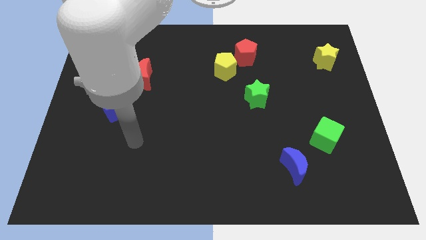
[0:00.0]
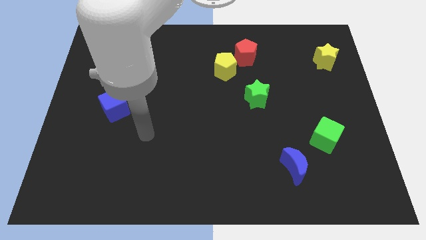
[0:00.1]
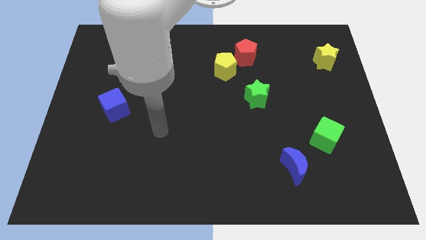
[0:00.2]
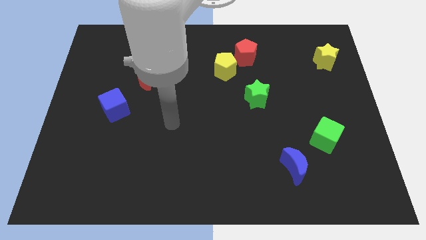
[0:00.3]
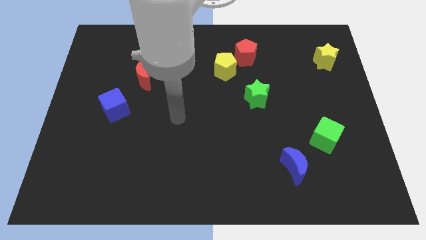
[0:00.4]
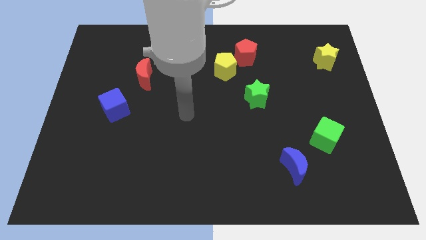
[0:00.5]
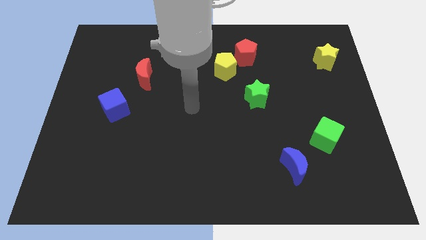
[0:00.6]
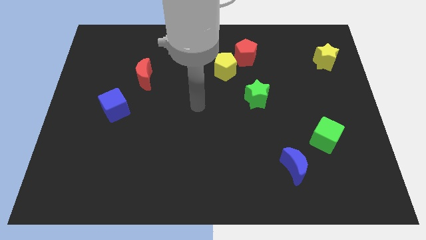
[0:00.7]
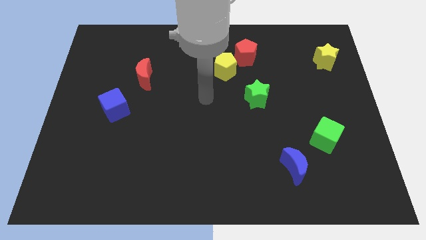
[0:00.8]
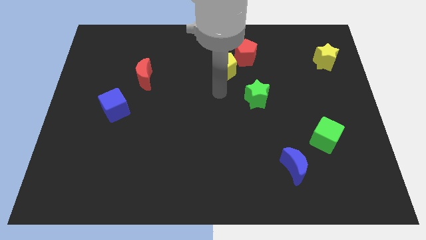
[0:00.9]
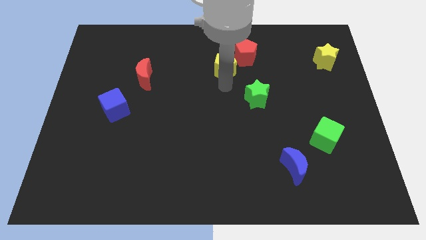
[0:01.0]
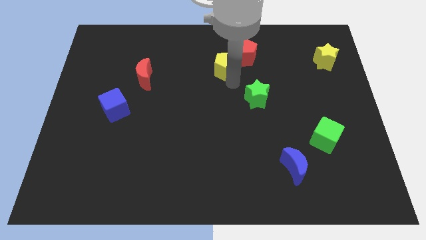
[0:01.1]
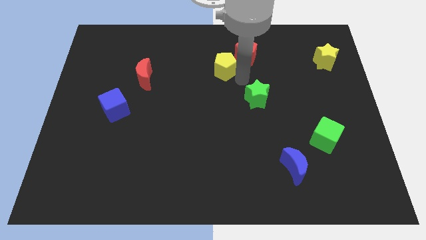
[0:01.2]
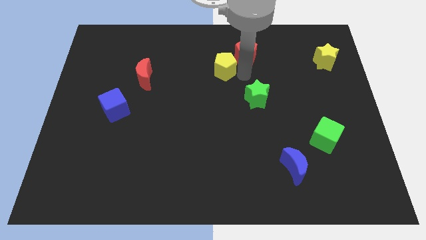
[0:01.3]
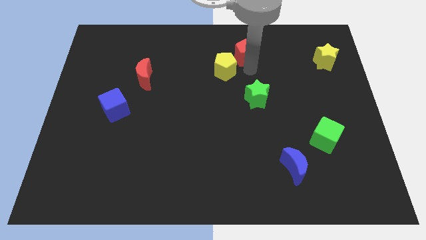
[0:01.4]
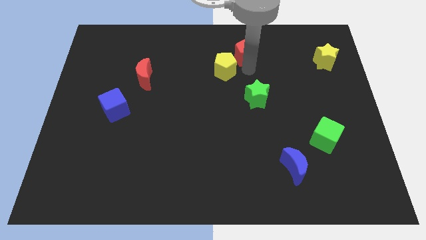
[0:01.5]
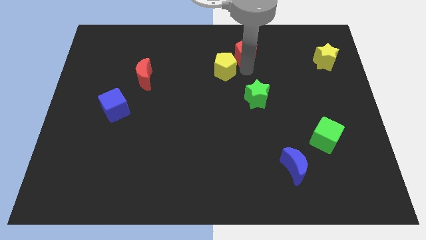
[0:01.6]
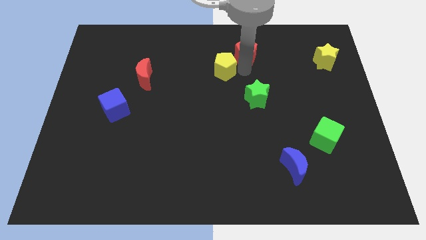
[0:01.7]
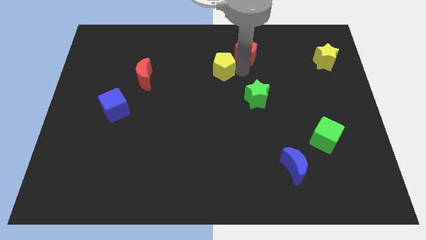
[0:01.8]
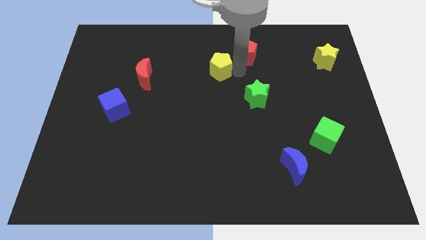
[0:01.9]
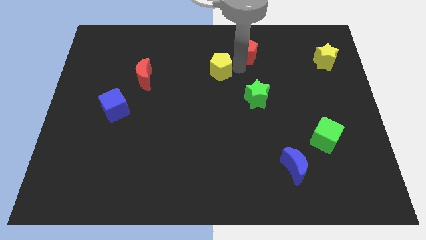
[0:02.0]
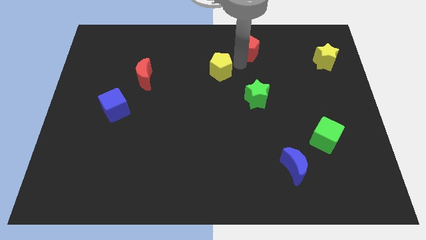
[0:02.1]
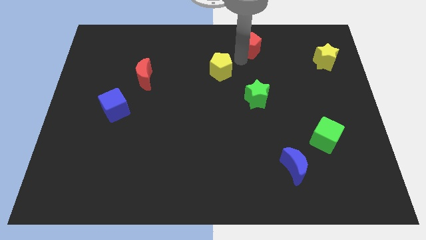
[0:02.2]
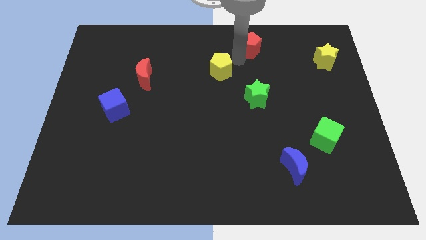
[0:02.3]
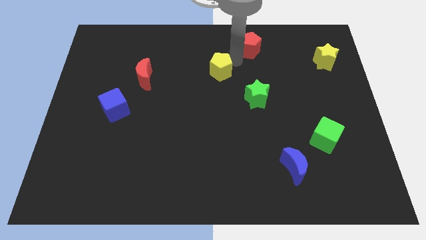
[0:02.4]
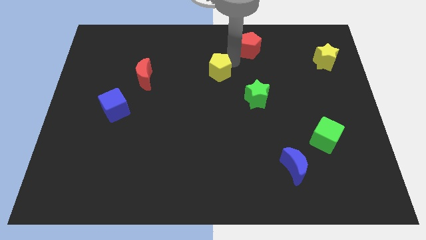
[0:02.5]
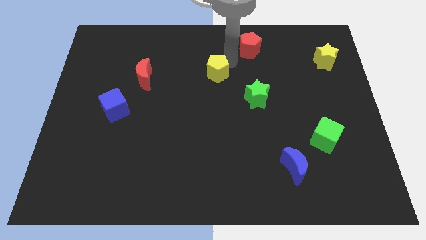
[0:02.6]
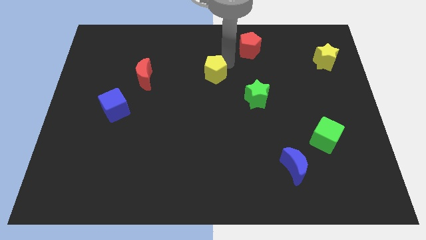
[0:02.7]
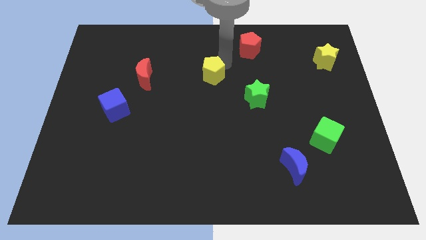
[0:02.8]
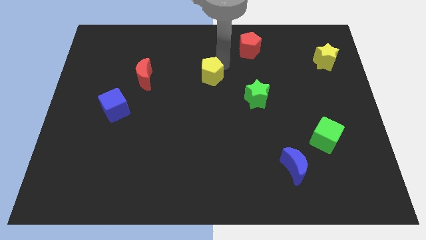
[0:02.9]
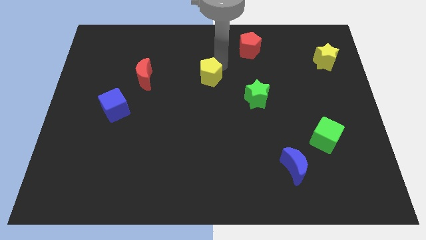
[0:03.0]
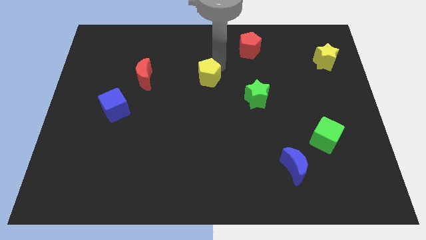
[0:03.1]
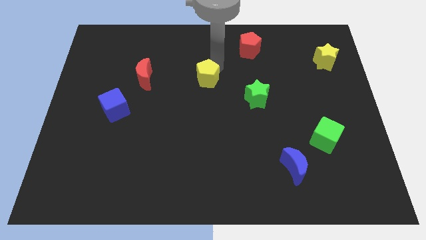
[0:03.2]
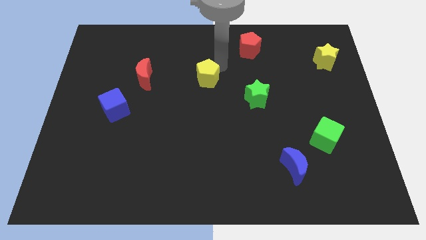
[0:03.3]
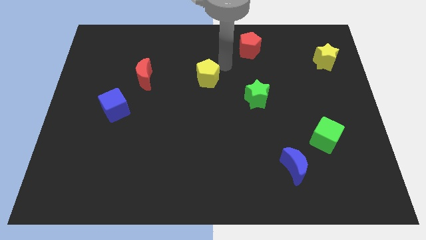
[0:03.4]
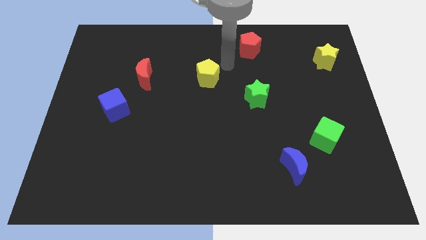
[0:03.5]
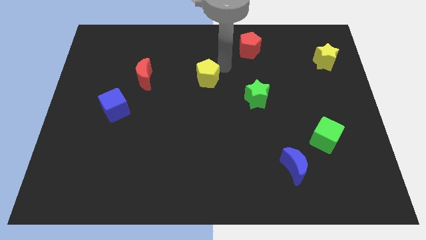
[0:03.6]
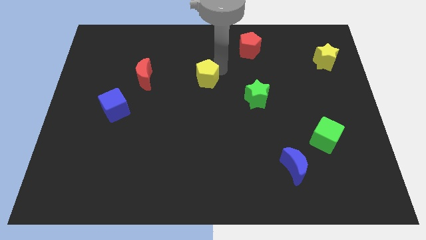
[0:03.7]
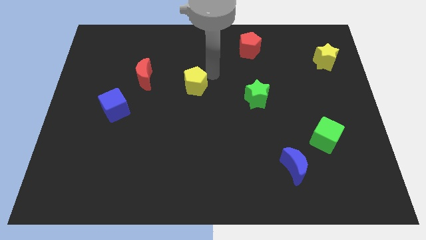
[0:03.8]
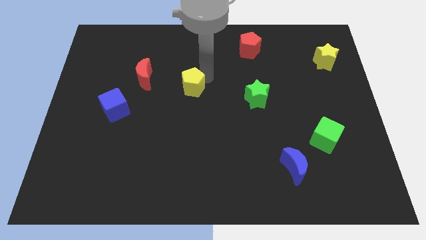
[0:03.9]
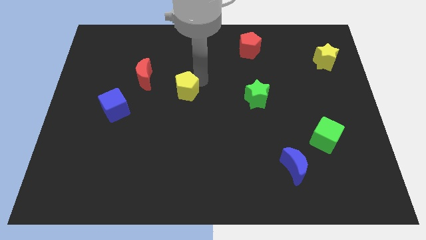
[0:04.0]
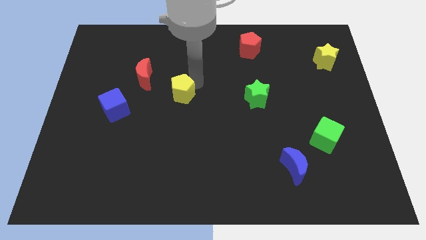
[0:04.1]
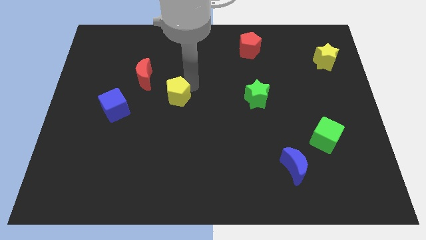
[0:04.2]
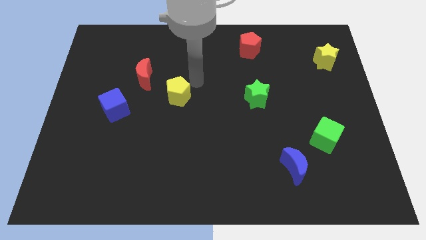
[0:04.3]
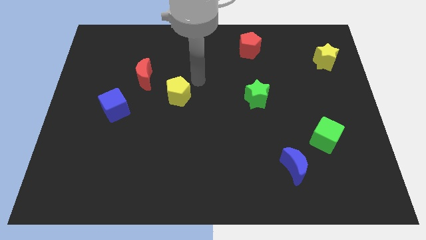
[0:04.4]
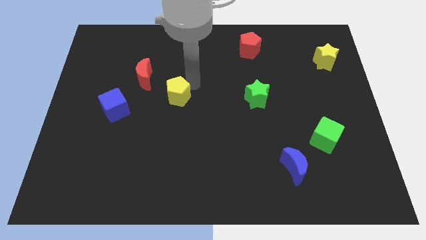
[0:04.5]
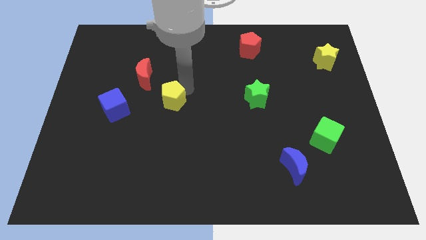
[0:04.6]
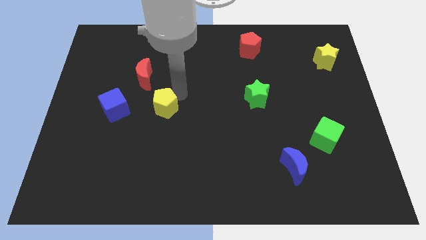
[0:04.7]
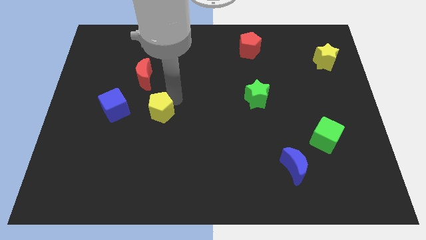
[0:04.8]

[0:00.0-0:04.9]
push the yellow pentagon diagonally downwards and left

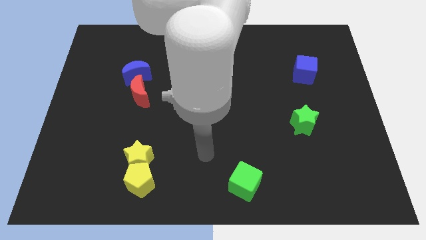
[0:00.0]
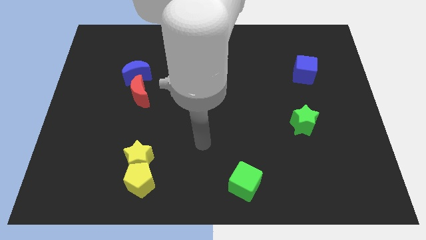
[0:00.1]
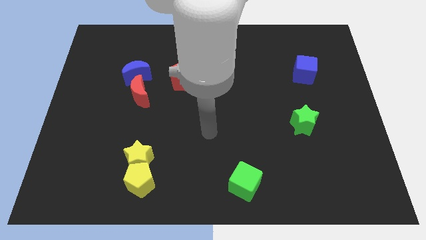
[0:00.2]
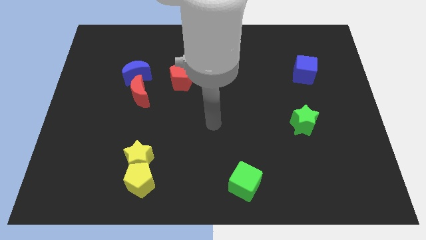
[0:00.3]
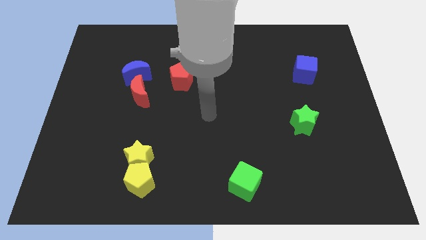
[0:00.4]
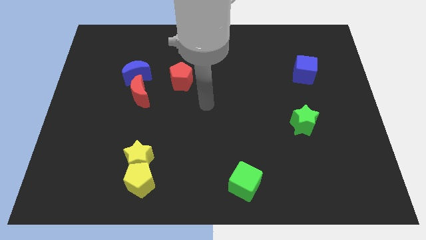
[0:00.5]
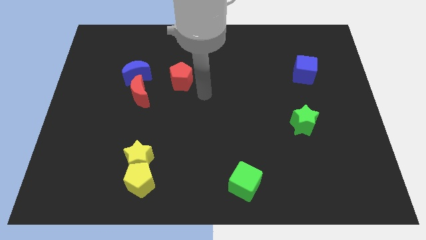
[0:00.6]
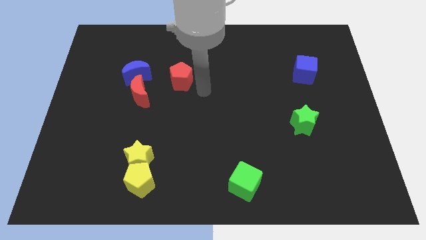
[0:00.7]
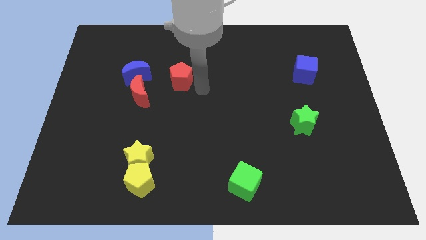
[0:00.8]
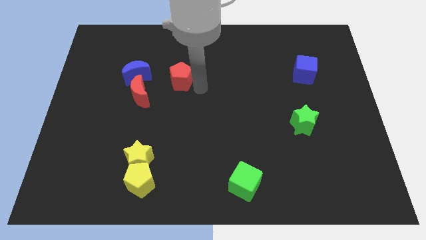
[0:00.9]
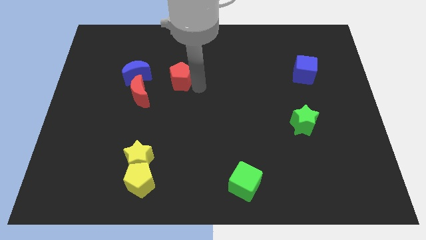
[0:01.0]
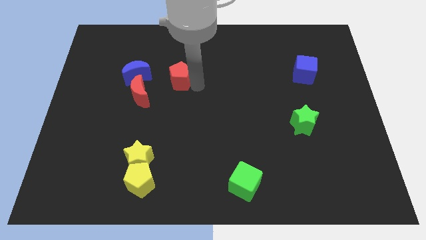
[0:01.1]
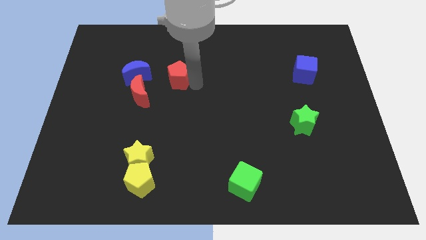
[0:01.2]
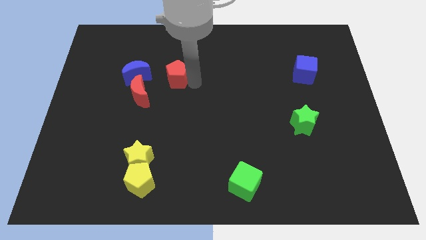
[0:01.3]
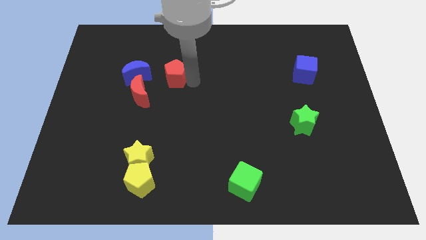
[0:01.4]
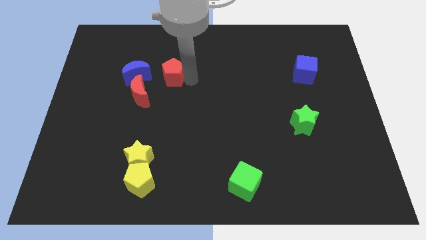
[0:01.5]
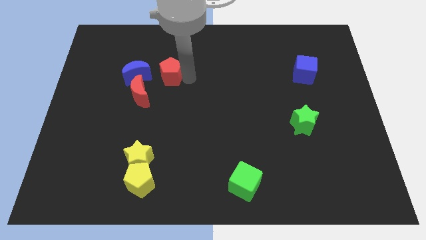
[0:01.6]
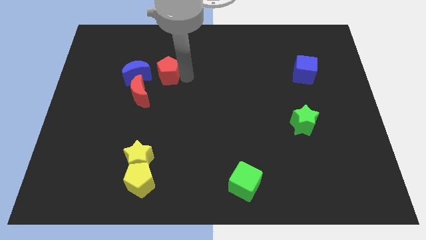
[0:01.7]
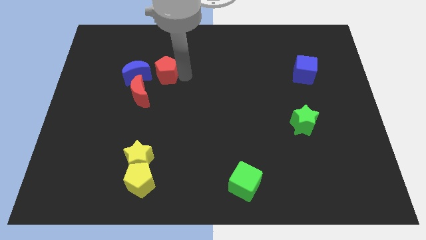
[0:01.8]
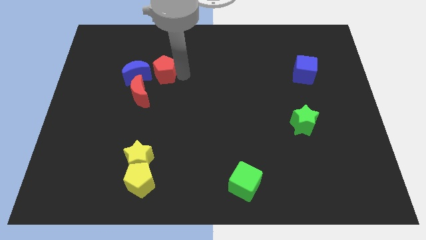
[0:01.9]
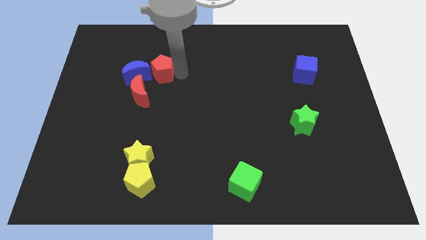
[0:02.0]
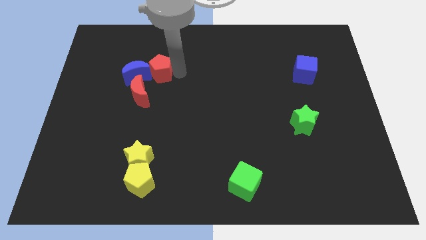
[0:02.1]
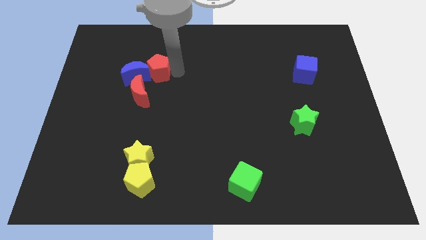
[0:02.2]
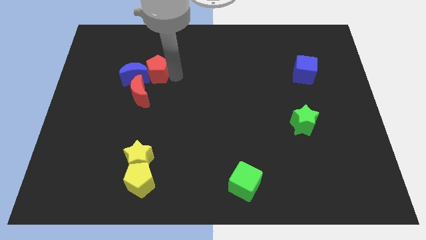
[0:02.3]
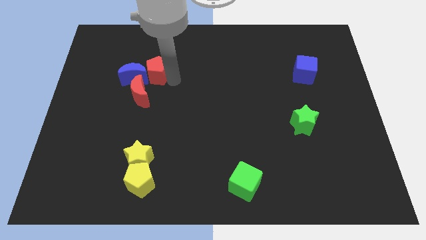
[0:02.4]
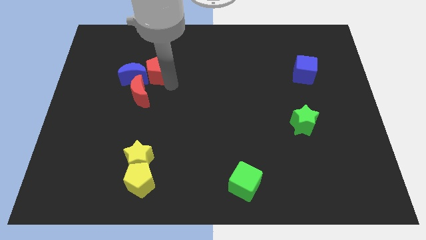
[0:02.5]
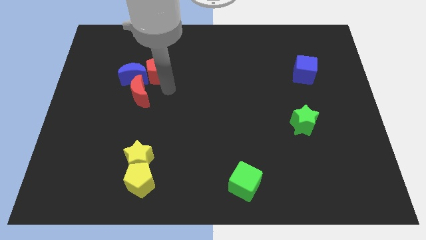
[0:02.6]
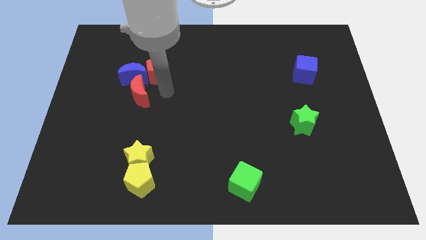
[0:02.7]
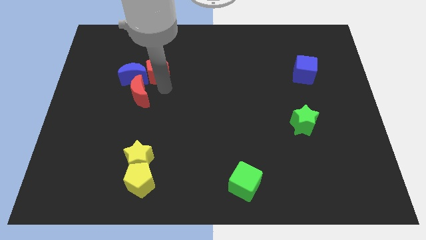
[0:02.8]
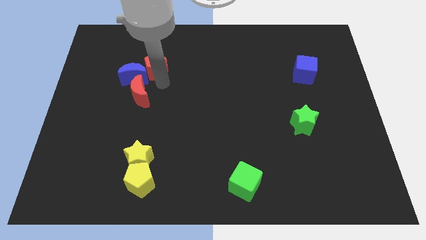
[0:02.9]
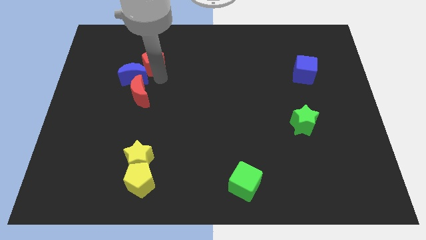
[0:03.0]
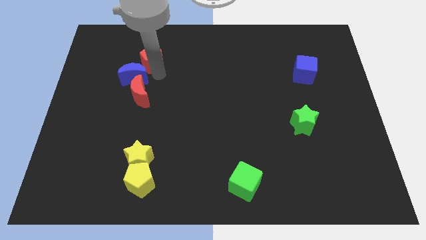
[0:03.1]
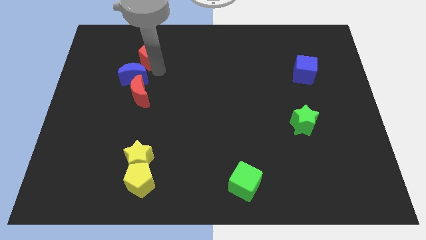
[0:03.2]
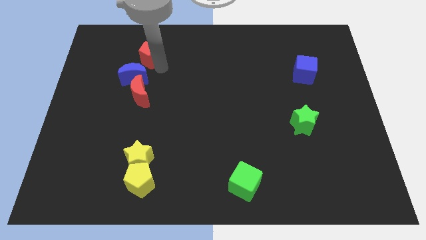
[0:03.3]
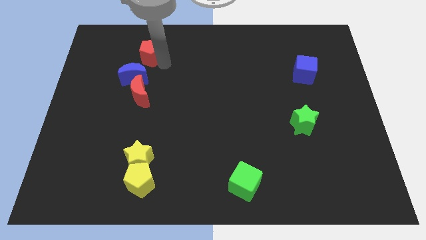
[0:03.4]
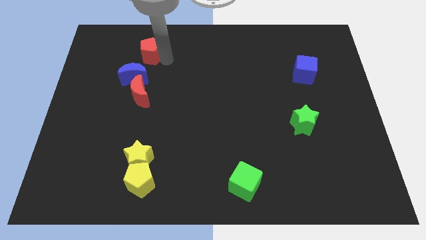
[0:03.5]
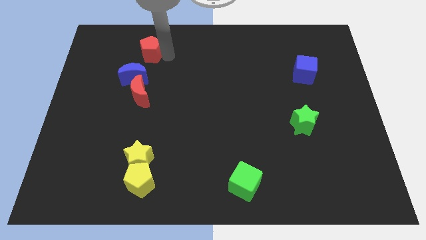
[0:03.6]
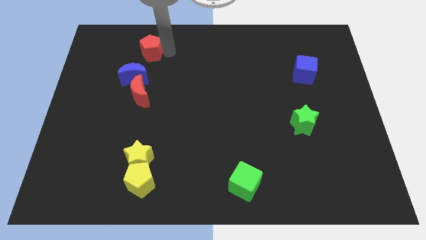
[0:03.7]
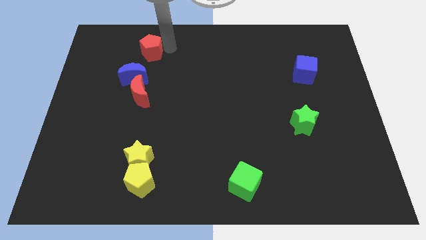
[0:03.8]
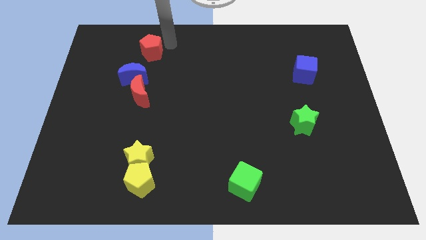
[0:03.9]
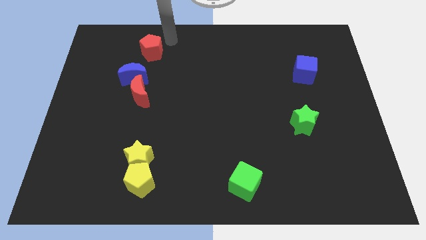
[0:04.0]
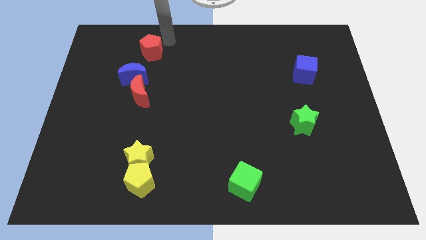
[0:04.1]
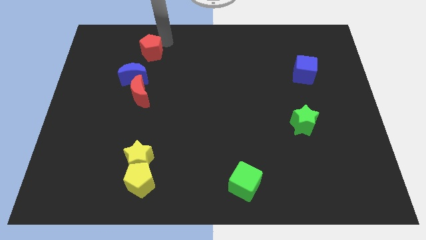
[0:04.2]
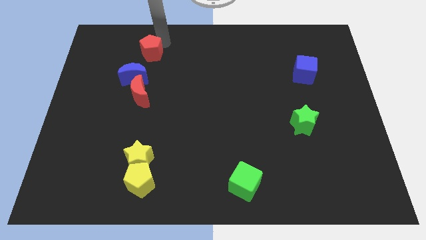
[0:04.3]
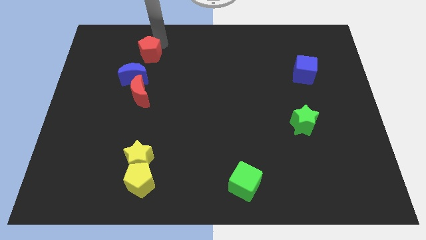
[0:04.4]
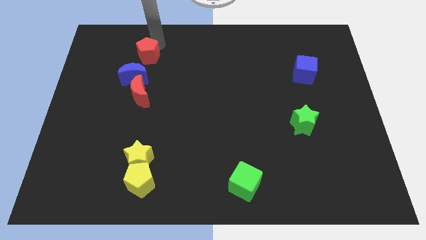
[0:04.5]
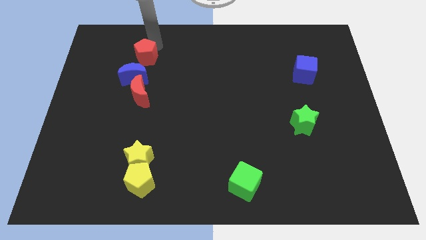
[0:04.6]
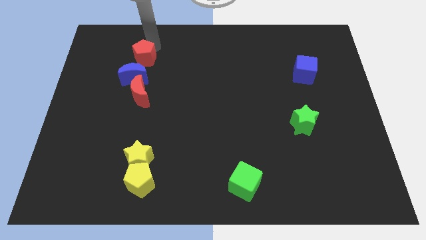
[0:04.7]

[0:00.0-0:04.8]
slightly slide the red pentagon left
